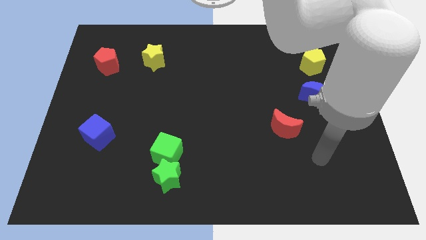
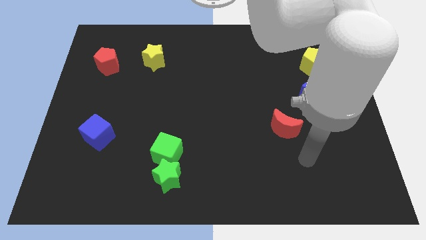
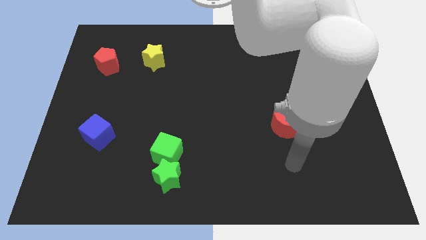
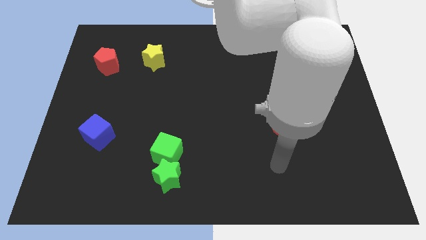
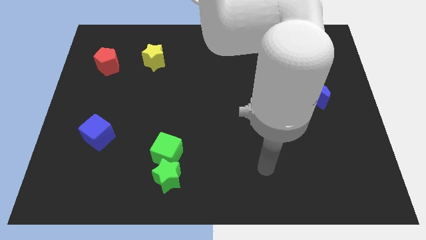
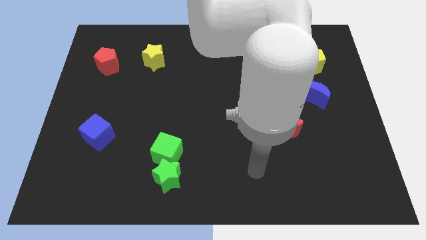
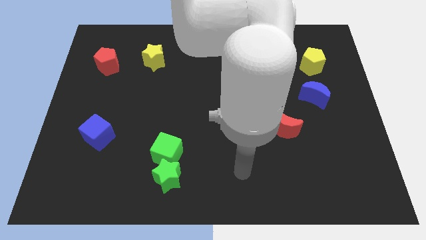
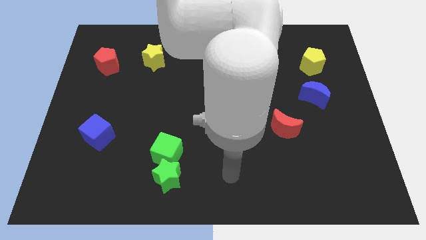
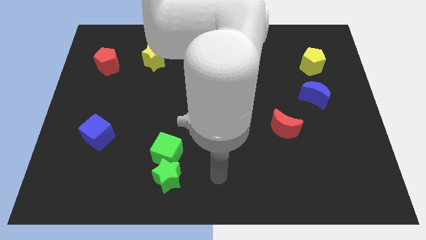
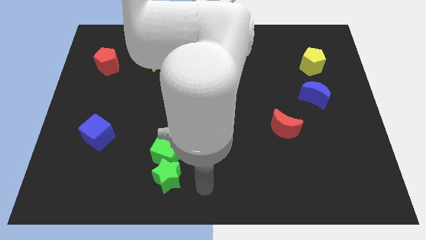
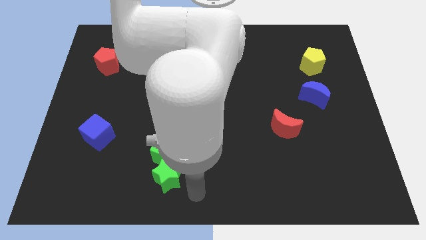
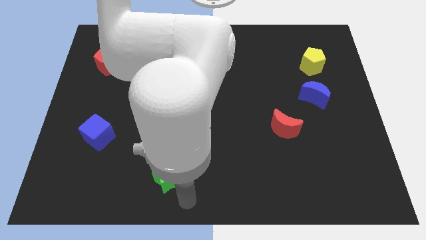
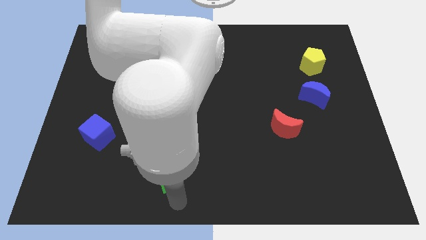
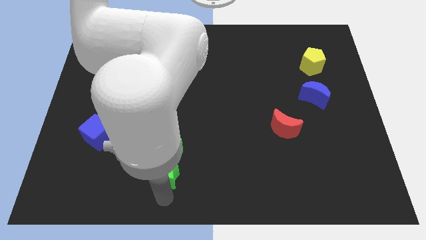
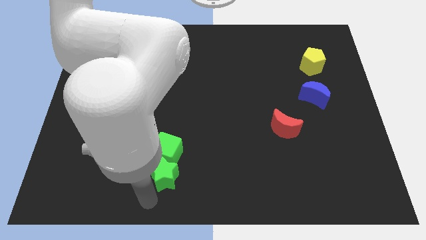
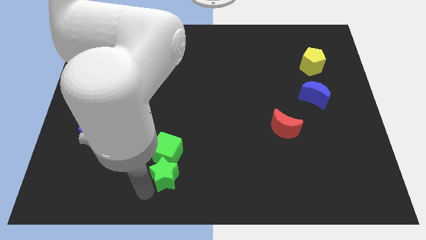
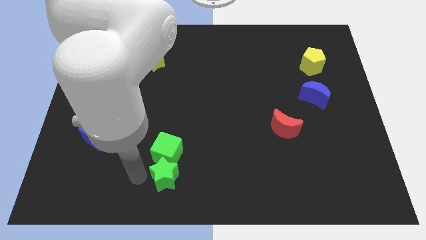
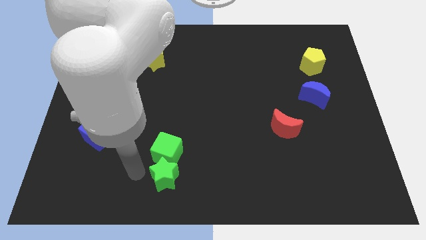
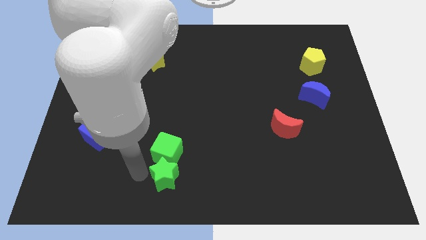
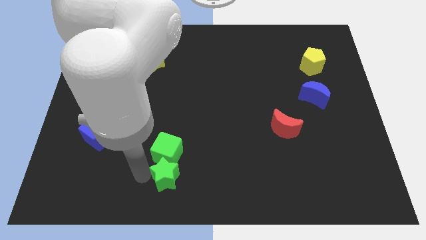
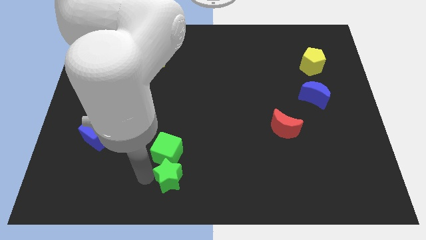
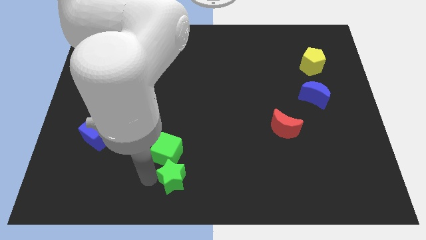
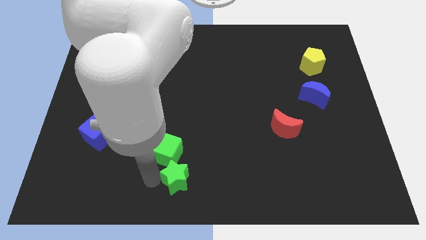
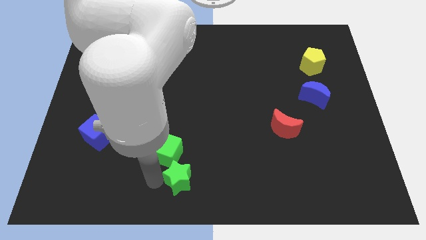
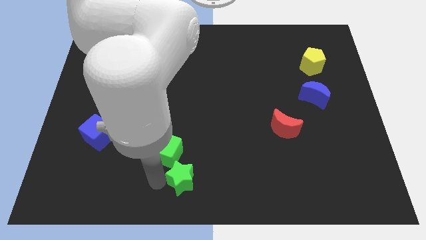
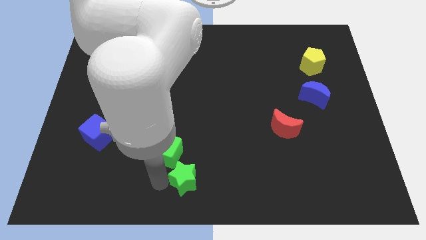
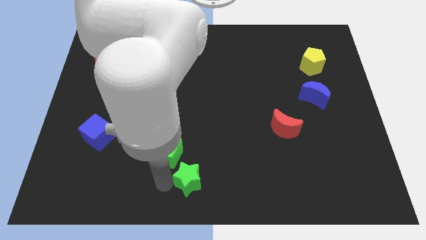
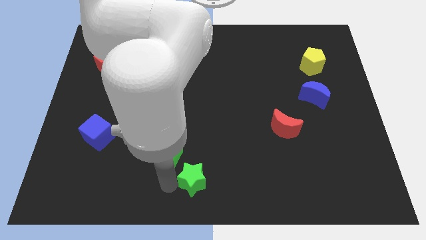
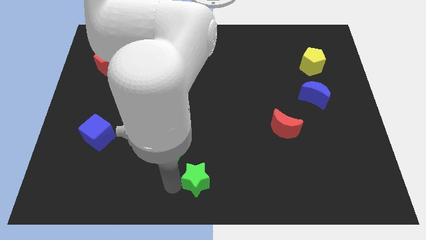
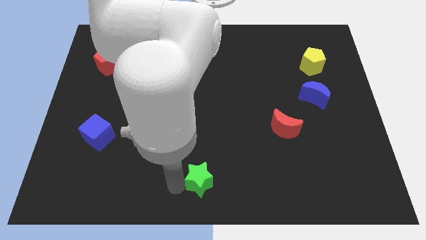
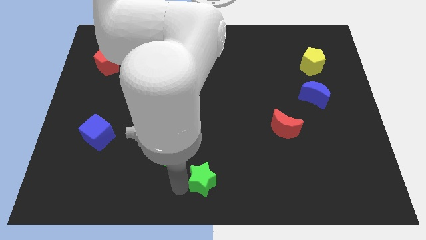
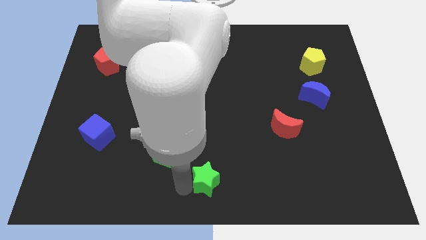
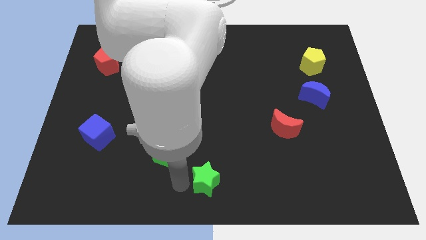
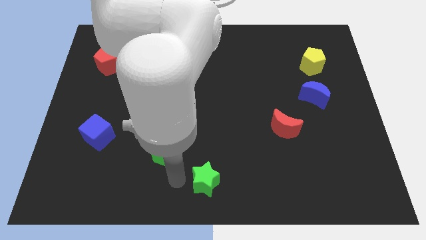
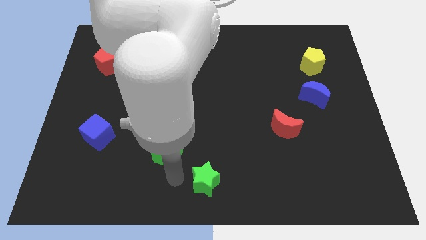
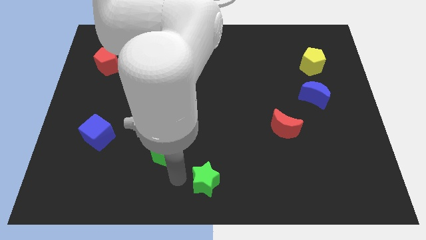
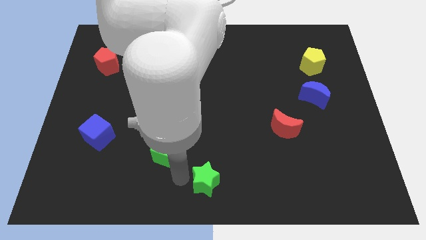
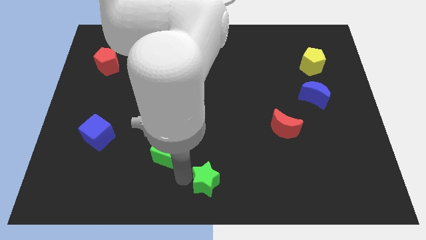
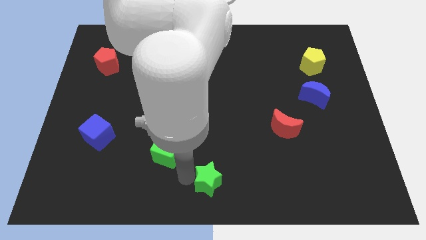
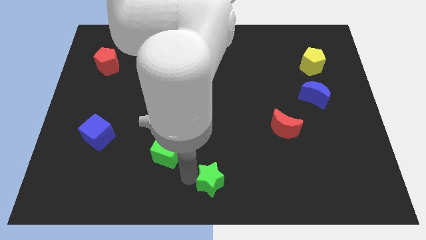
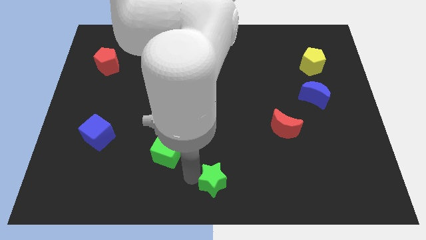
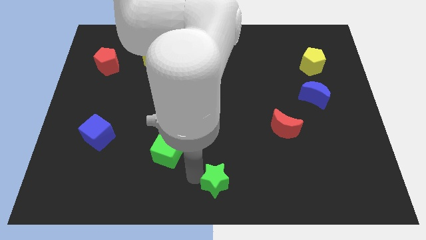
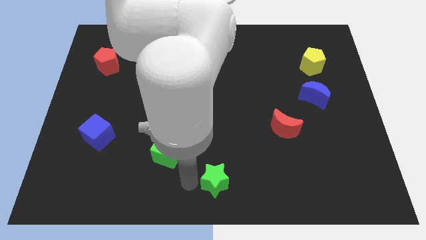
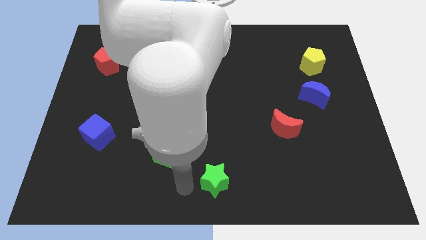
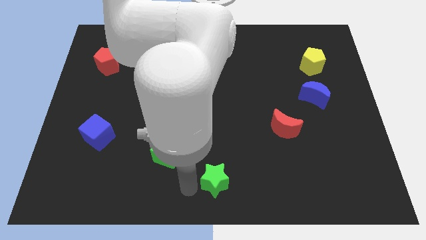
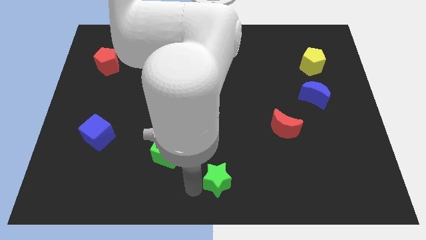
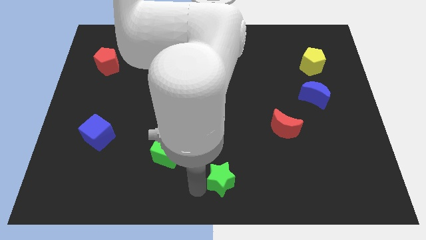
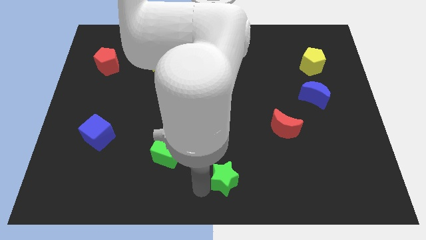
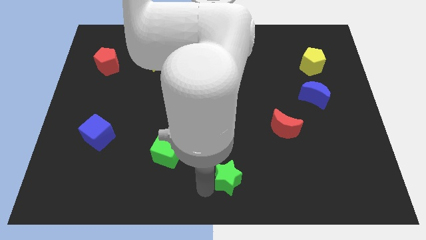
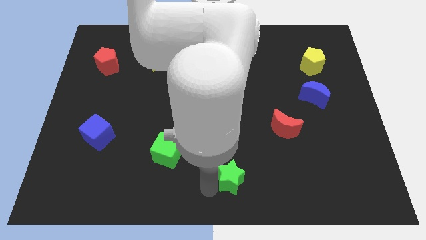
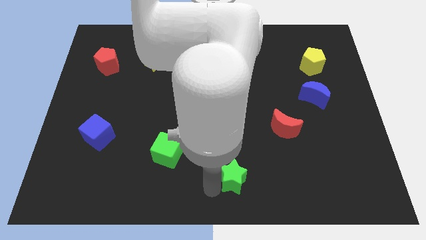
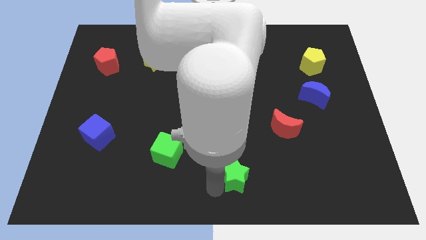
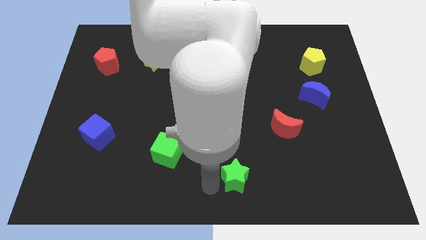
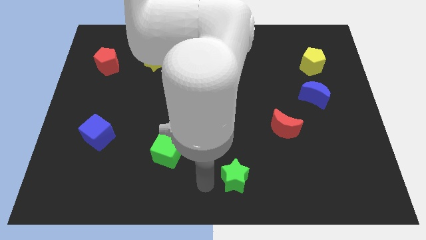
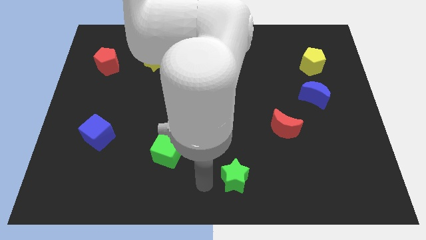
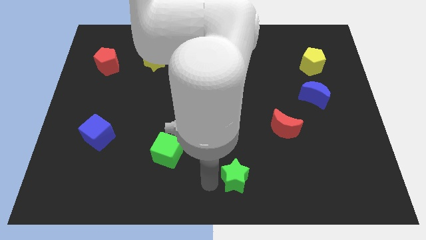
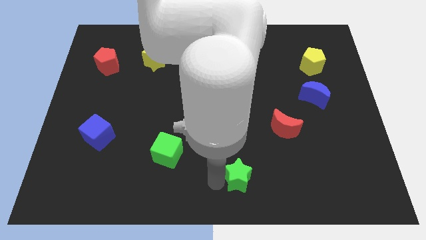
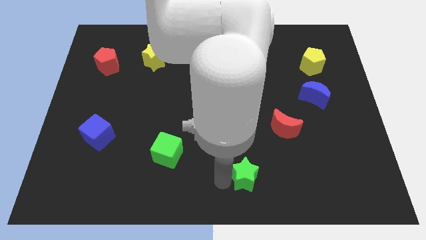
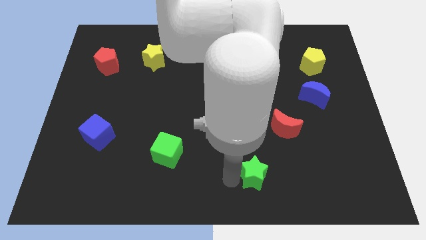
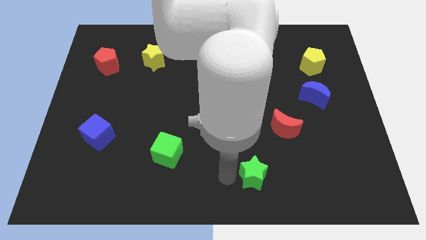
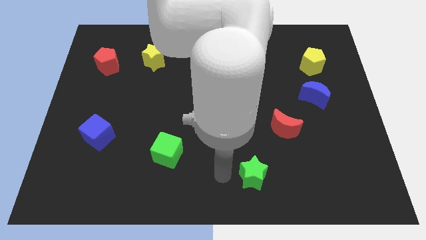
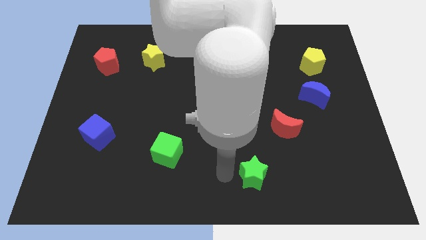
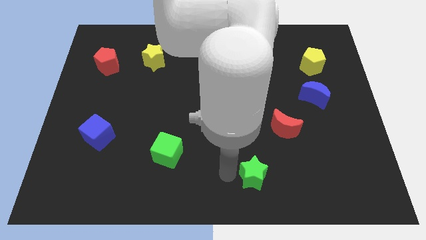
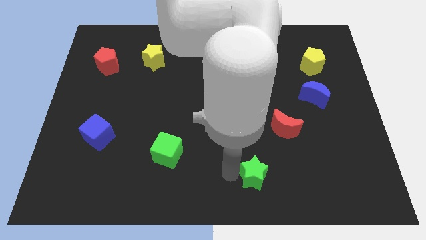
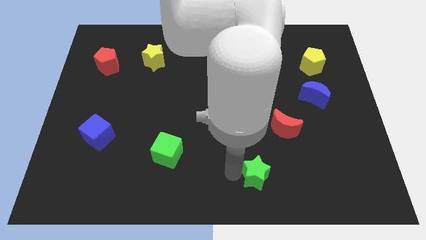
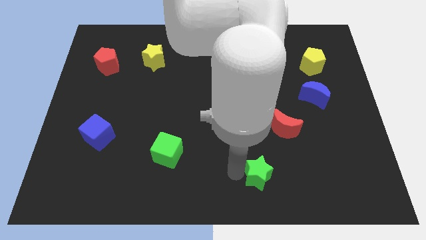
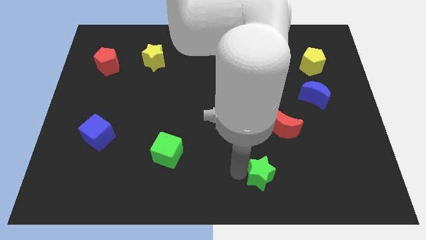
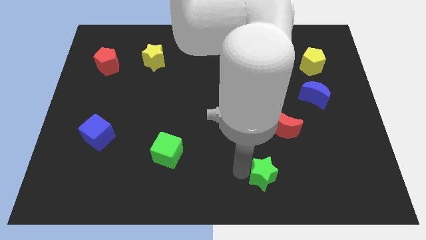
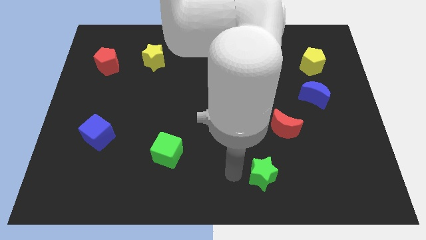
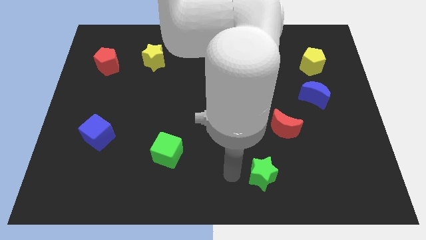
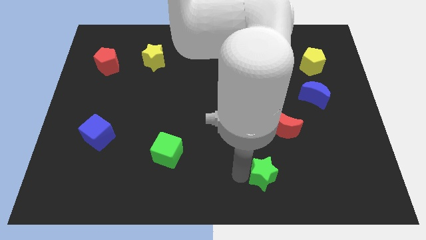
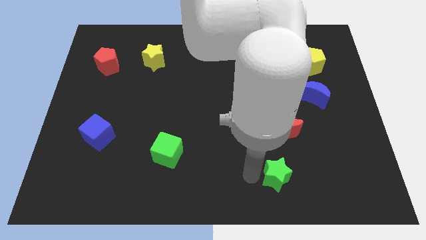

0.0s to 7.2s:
move the green star right

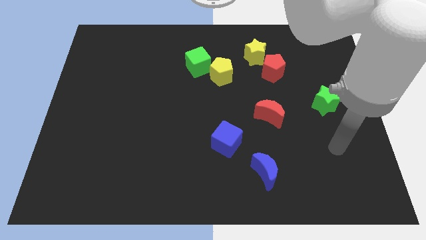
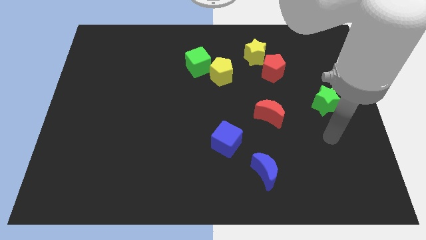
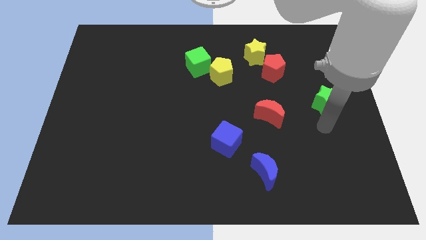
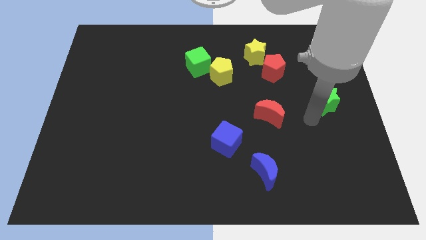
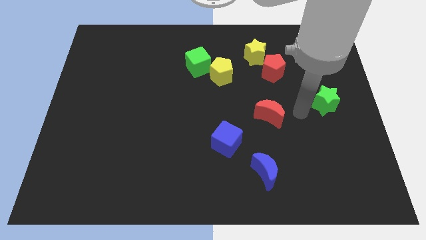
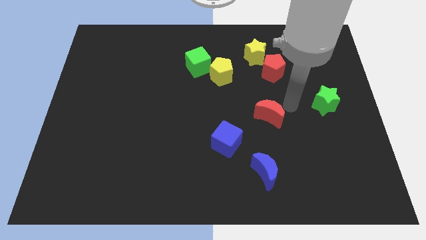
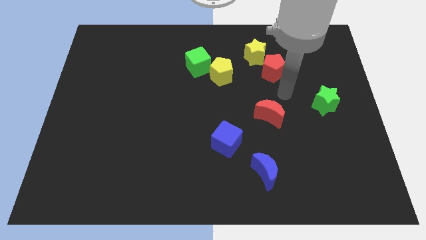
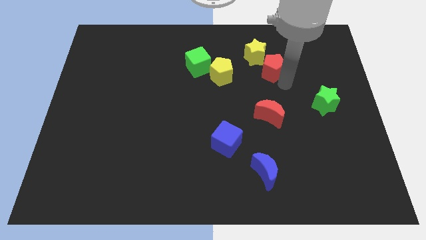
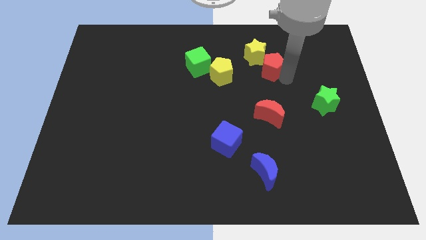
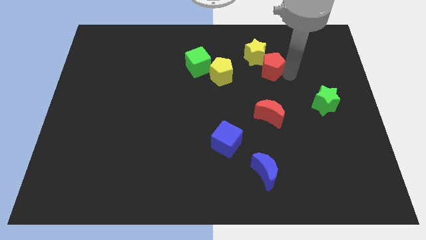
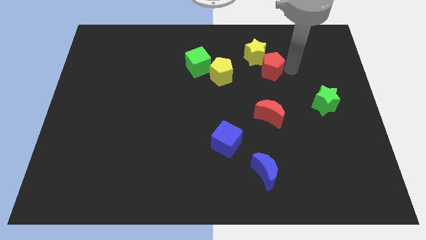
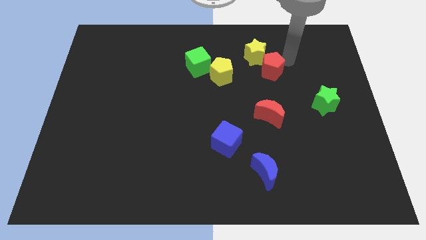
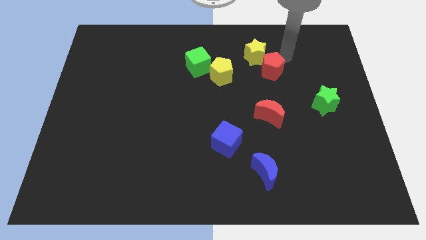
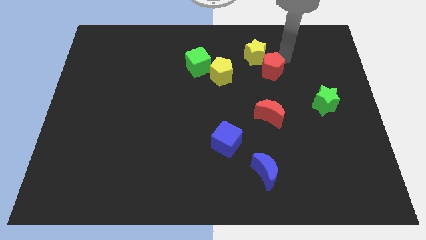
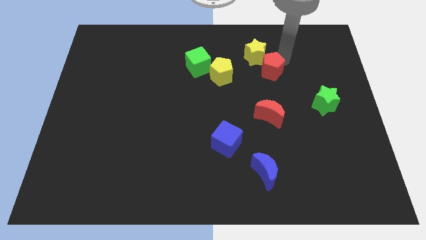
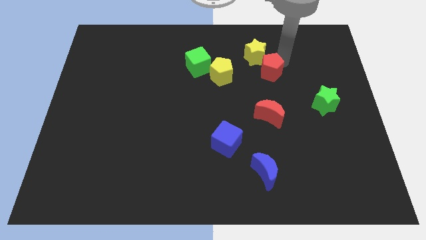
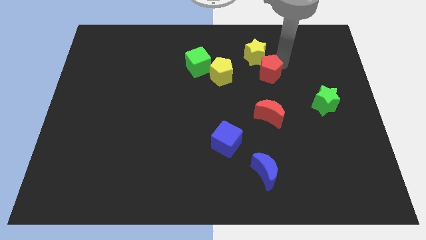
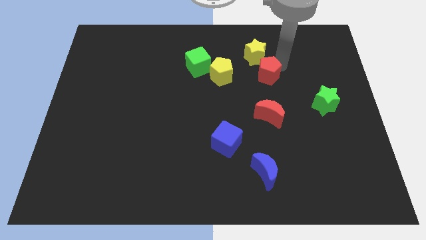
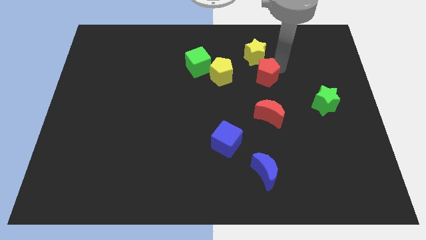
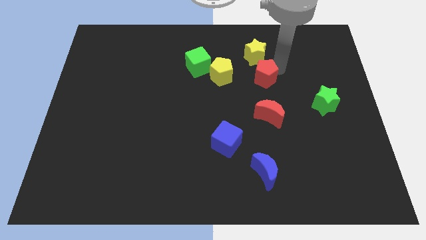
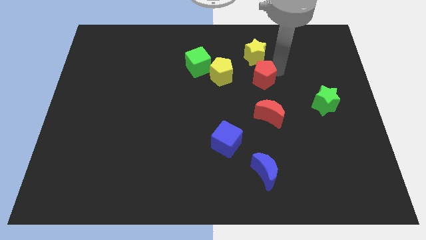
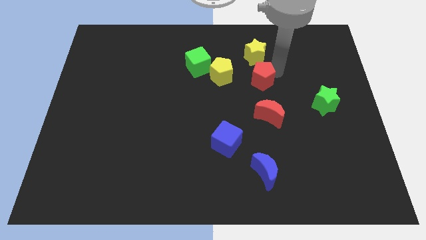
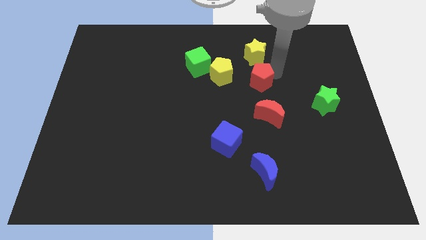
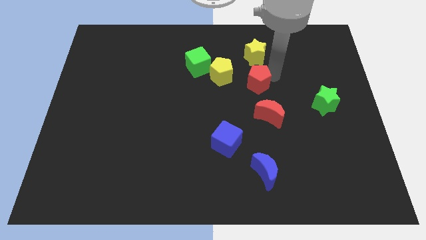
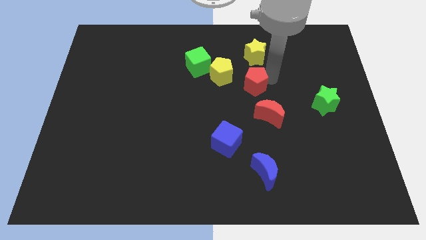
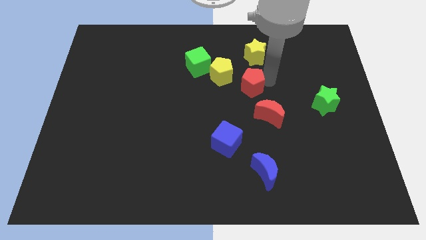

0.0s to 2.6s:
move the red pentagon down and left a bit
